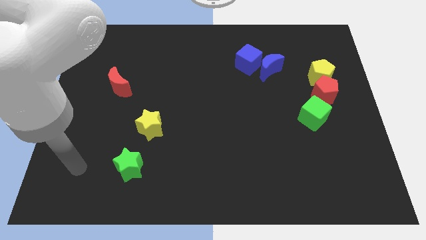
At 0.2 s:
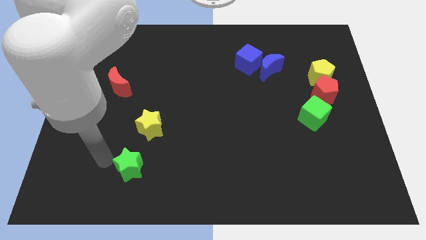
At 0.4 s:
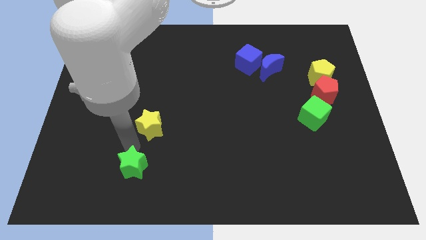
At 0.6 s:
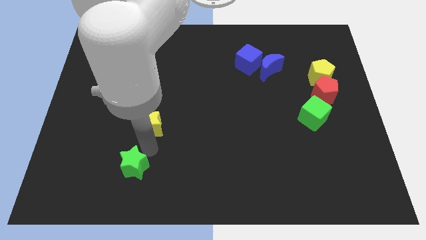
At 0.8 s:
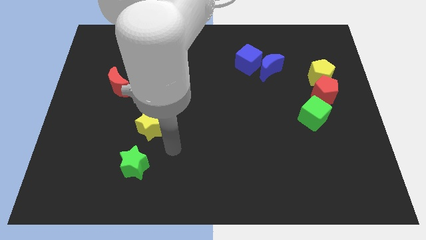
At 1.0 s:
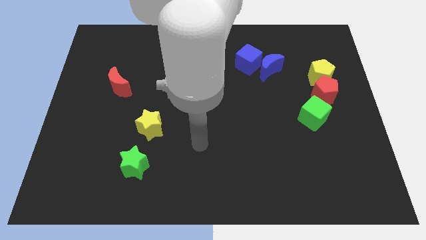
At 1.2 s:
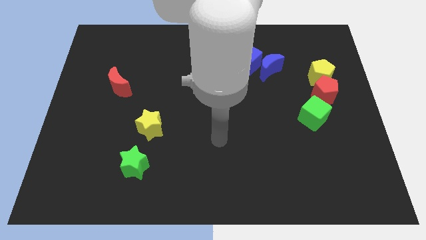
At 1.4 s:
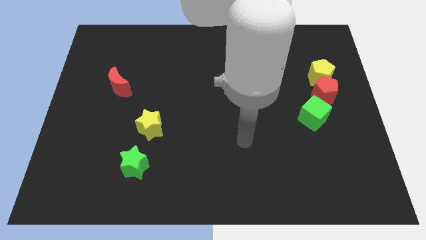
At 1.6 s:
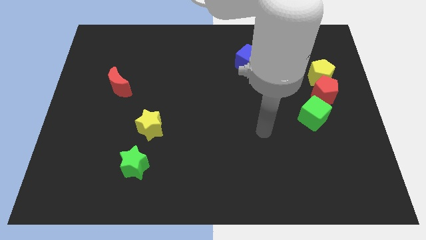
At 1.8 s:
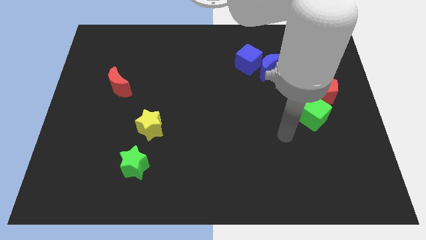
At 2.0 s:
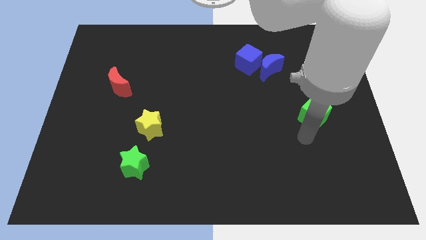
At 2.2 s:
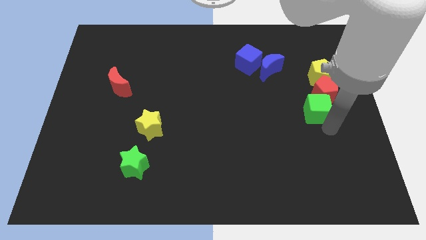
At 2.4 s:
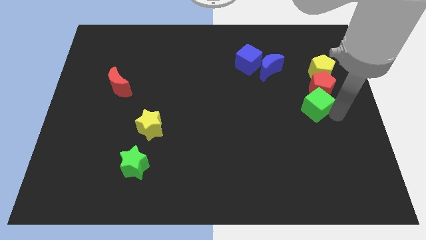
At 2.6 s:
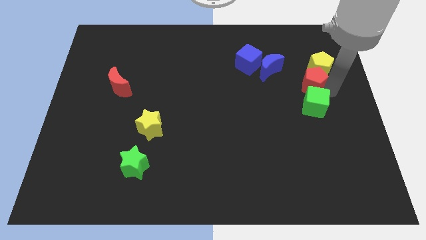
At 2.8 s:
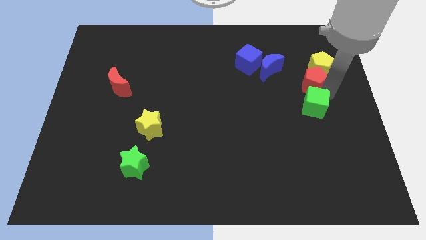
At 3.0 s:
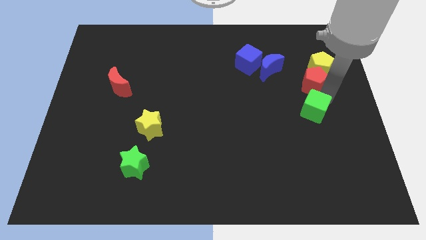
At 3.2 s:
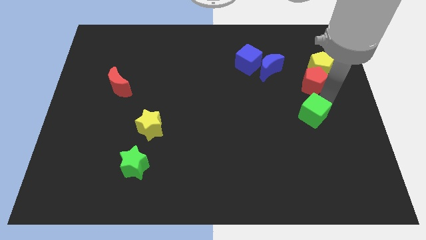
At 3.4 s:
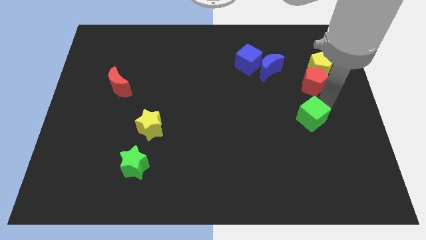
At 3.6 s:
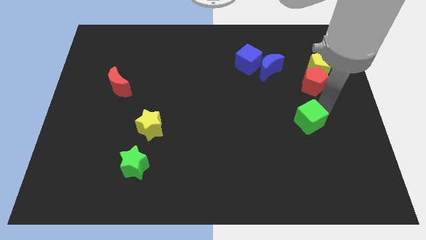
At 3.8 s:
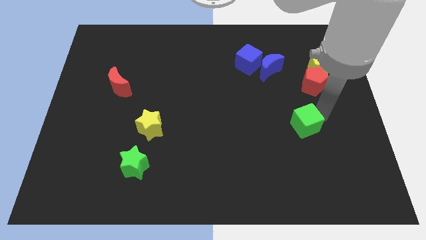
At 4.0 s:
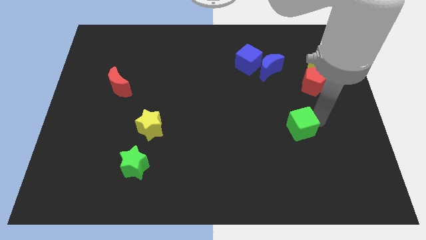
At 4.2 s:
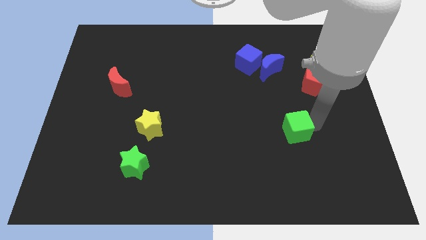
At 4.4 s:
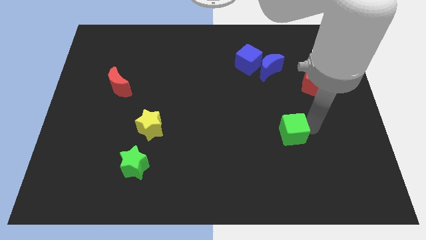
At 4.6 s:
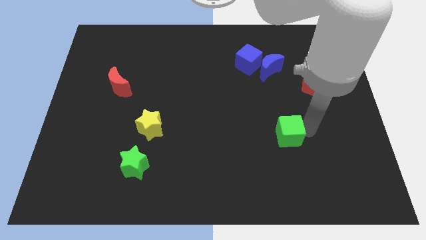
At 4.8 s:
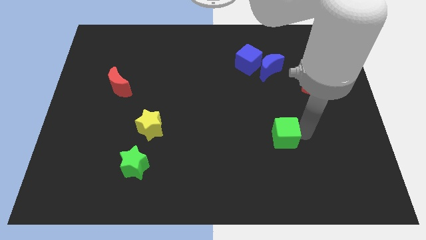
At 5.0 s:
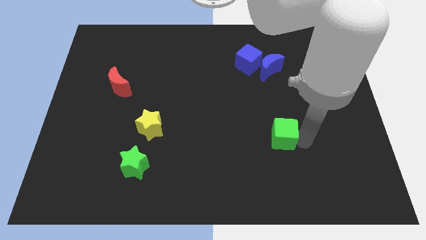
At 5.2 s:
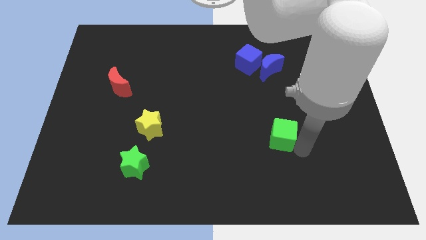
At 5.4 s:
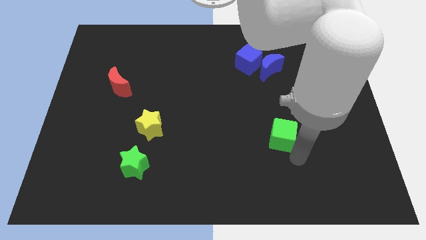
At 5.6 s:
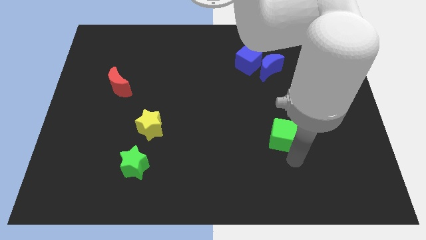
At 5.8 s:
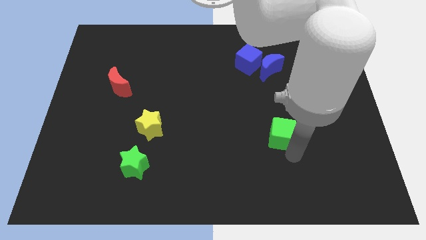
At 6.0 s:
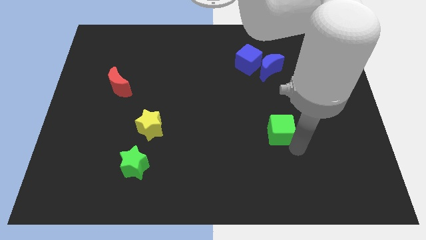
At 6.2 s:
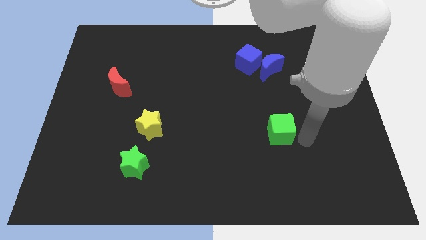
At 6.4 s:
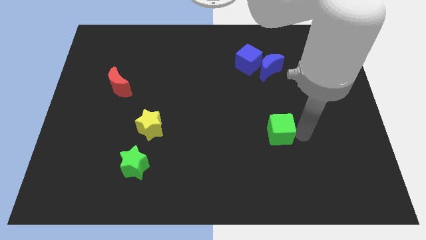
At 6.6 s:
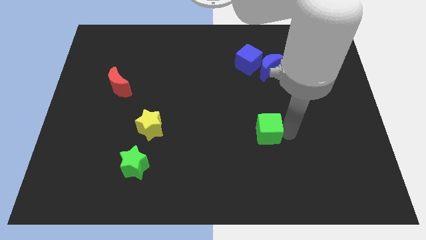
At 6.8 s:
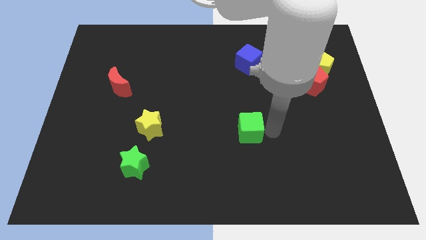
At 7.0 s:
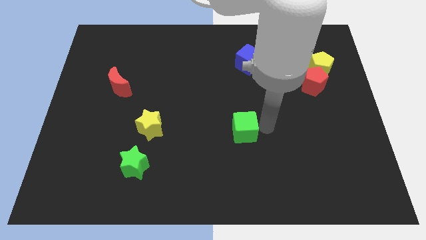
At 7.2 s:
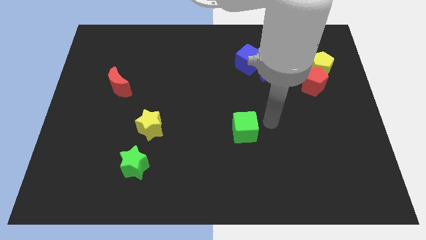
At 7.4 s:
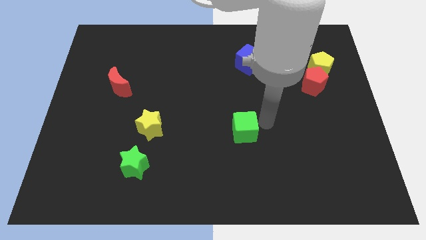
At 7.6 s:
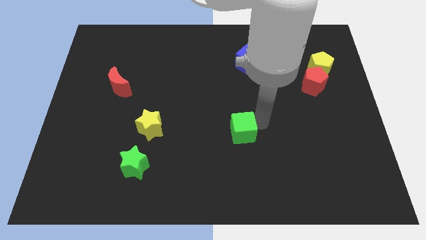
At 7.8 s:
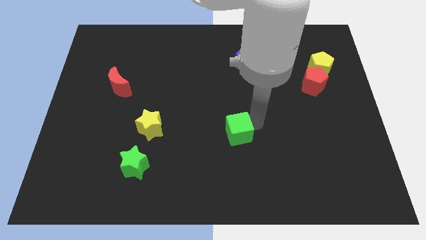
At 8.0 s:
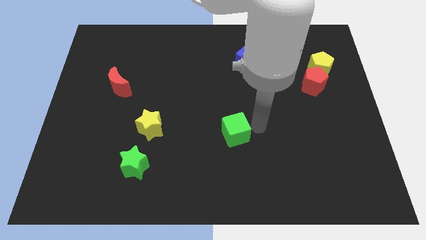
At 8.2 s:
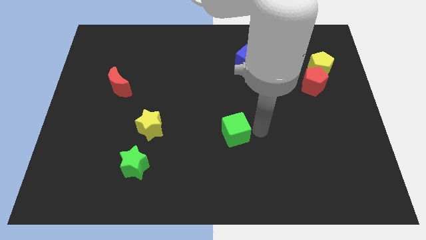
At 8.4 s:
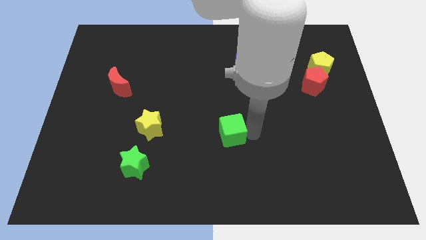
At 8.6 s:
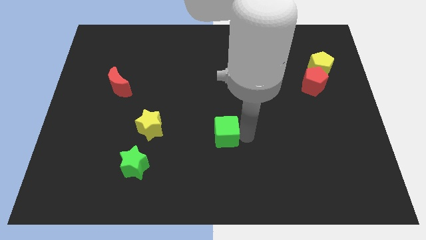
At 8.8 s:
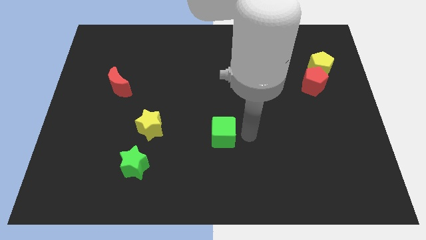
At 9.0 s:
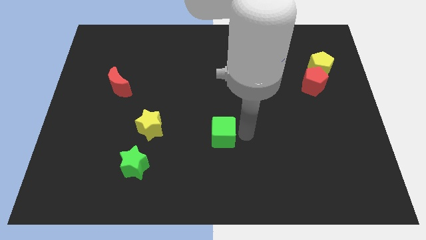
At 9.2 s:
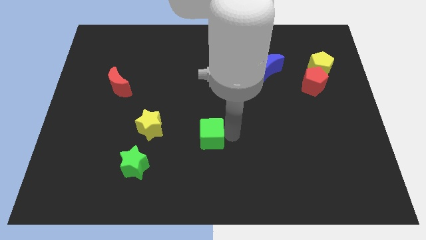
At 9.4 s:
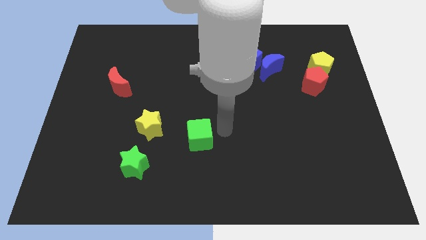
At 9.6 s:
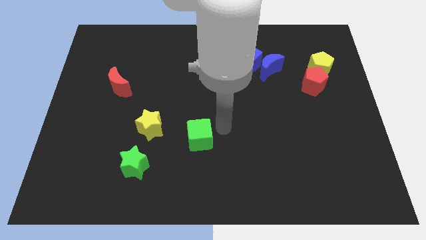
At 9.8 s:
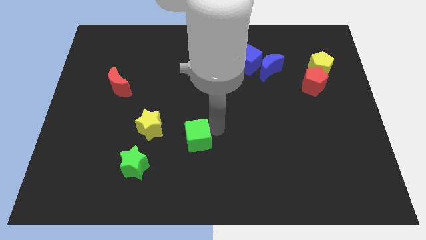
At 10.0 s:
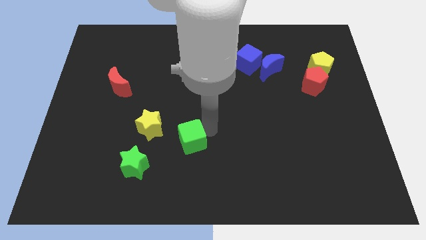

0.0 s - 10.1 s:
push the green cube to the bottom right side of the yellow star

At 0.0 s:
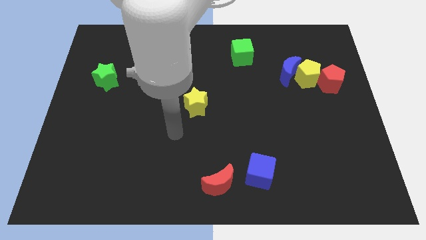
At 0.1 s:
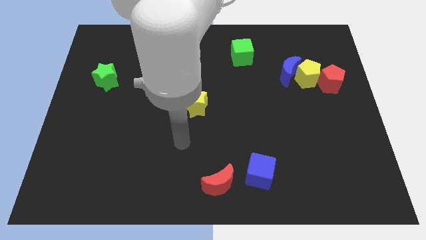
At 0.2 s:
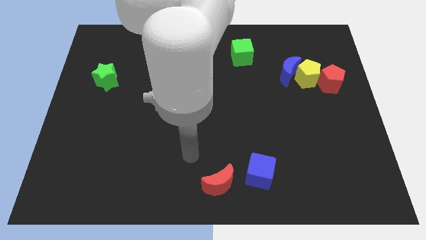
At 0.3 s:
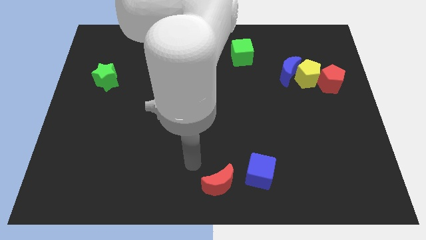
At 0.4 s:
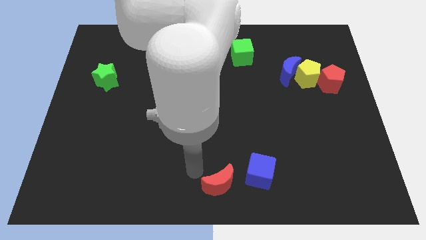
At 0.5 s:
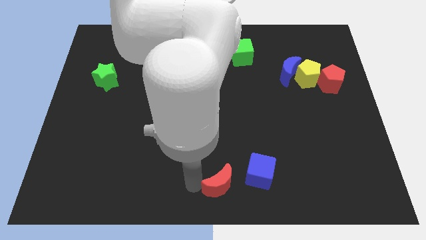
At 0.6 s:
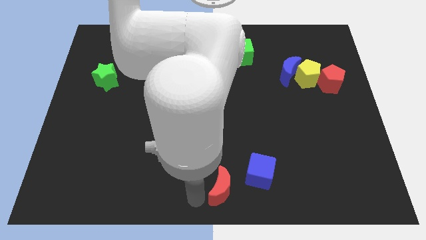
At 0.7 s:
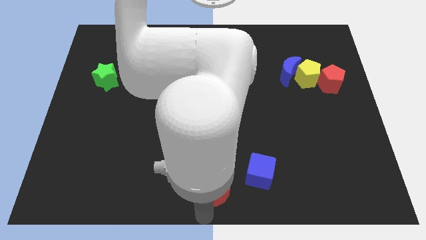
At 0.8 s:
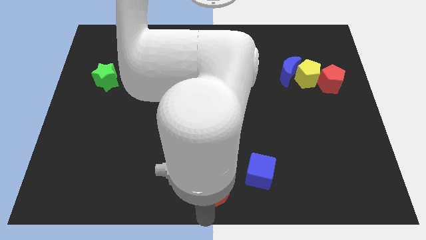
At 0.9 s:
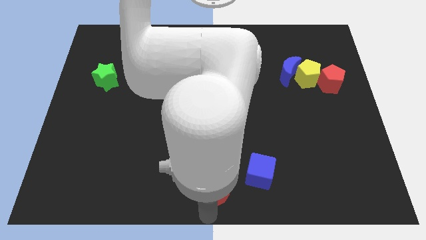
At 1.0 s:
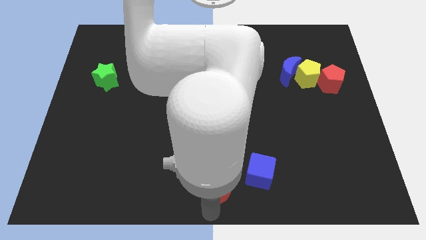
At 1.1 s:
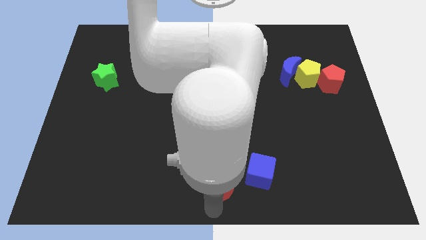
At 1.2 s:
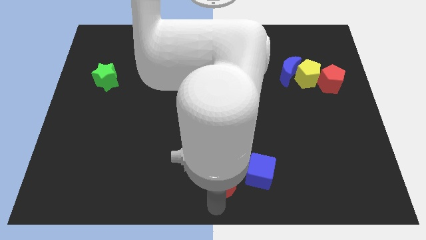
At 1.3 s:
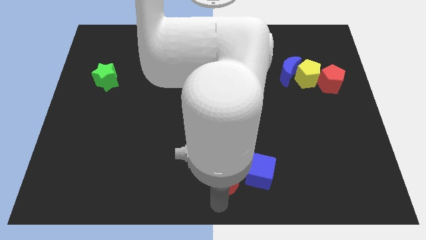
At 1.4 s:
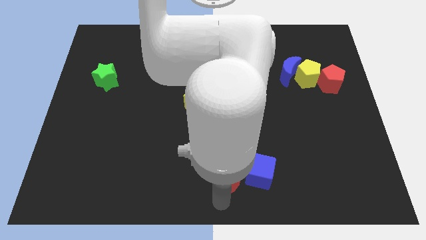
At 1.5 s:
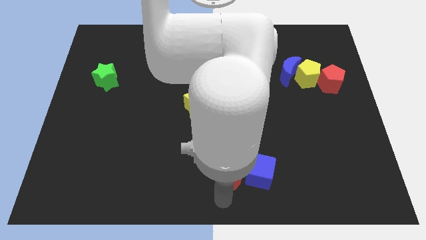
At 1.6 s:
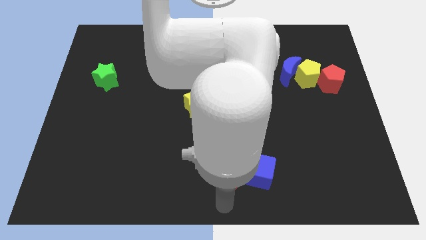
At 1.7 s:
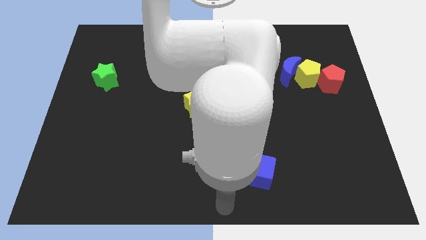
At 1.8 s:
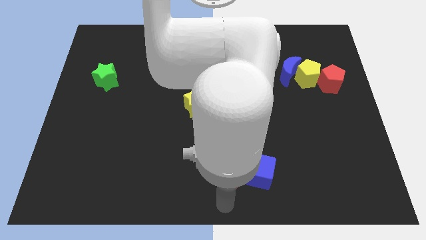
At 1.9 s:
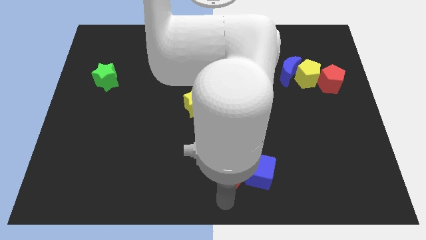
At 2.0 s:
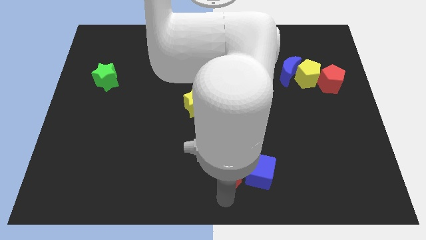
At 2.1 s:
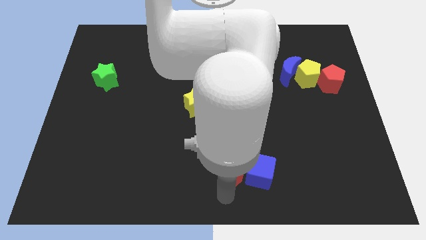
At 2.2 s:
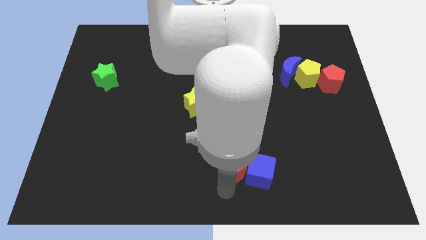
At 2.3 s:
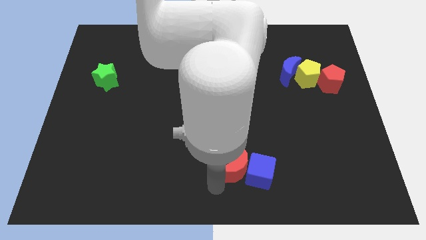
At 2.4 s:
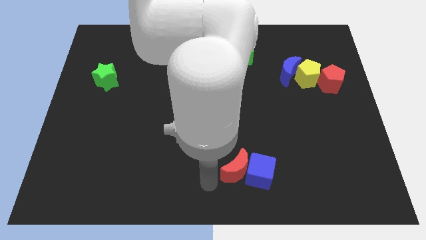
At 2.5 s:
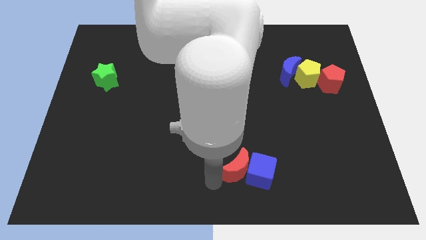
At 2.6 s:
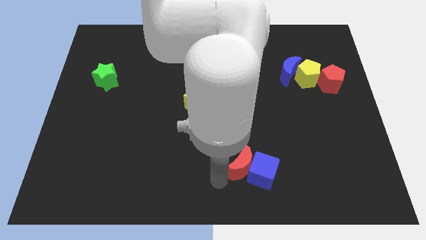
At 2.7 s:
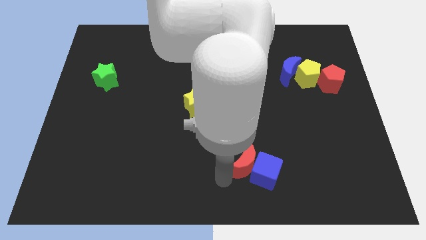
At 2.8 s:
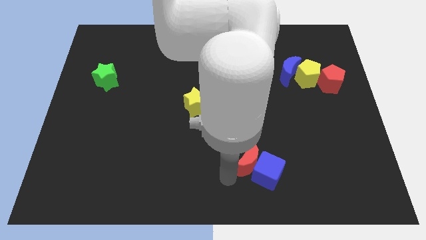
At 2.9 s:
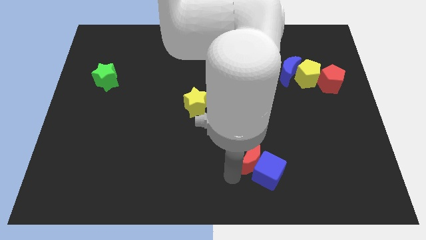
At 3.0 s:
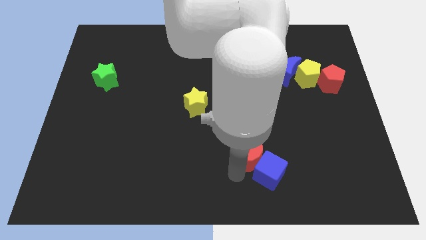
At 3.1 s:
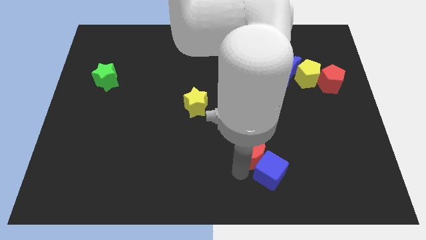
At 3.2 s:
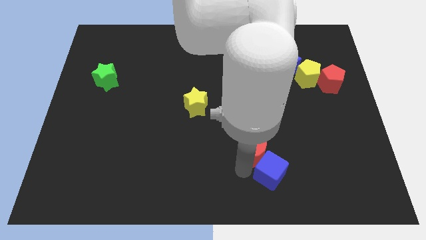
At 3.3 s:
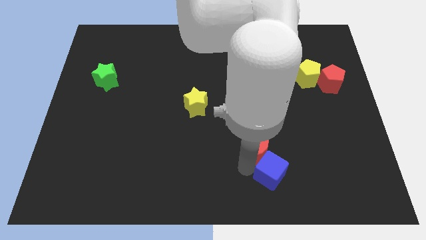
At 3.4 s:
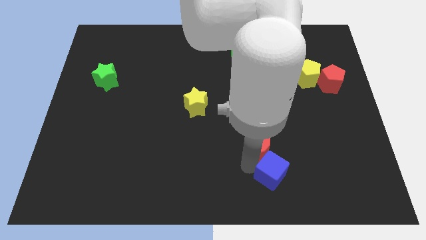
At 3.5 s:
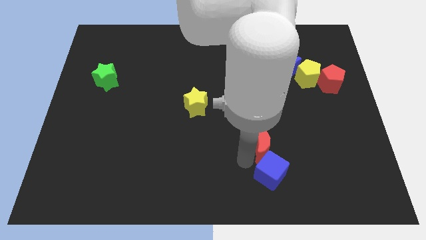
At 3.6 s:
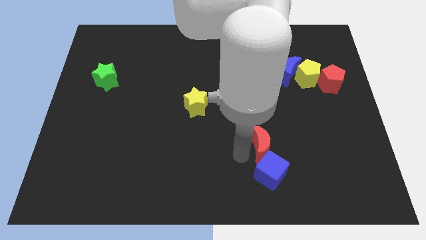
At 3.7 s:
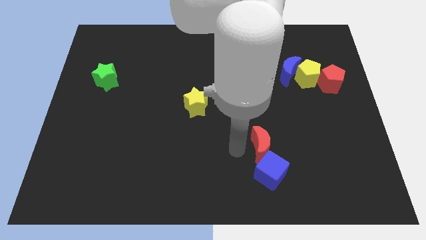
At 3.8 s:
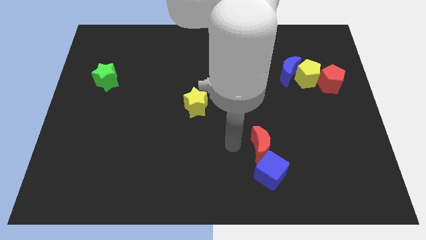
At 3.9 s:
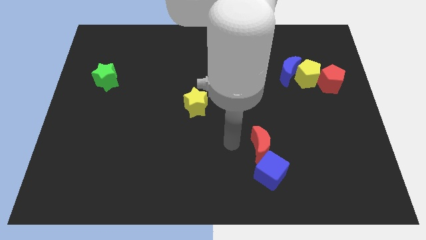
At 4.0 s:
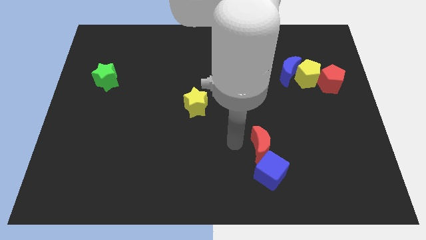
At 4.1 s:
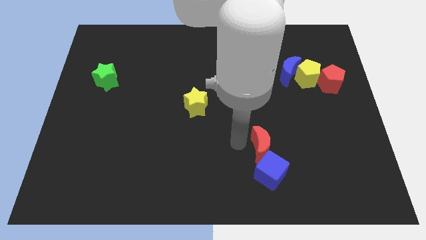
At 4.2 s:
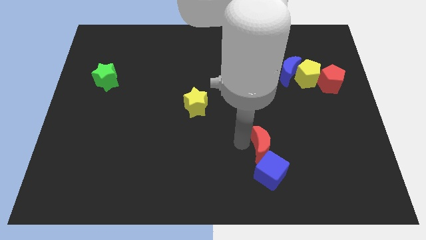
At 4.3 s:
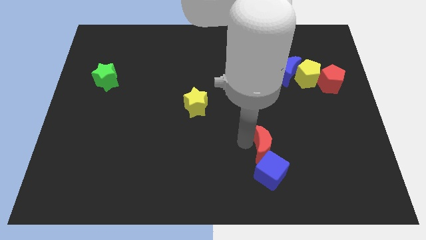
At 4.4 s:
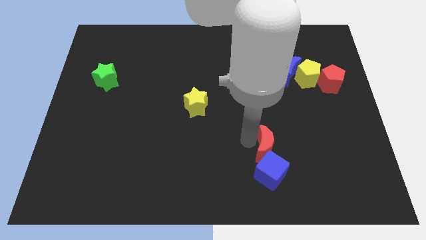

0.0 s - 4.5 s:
push the red moon diagonally up and to the right of the blue cube
